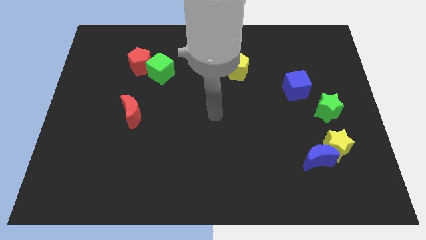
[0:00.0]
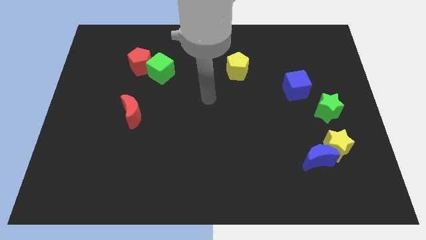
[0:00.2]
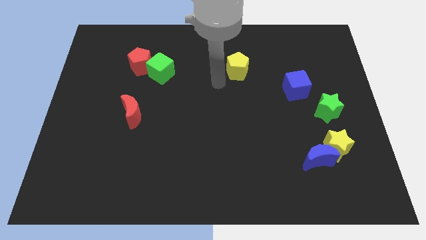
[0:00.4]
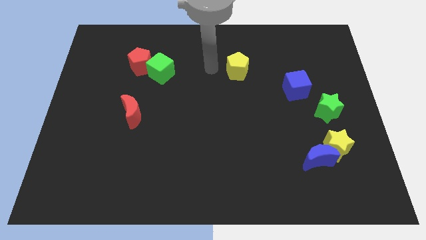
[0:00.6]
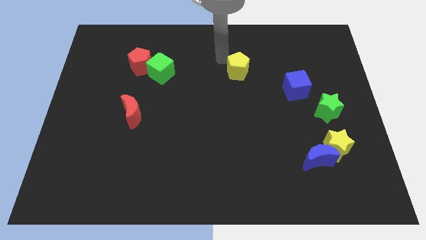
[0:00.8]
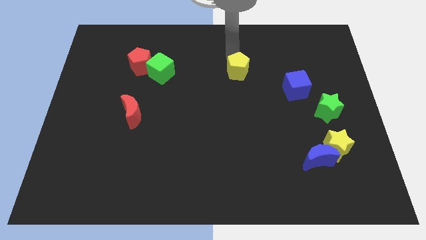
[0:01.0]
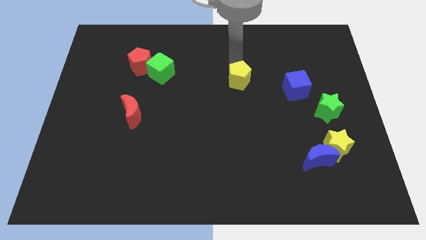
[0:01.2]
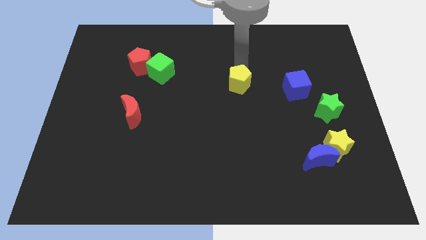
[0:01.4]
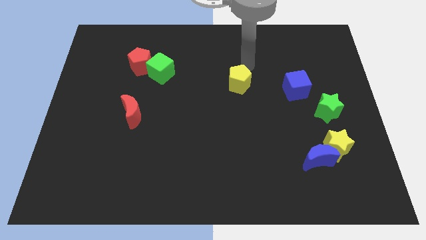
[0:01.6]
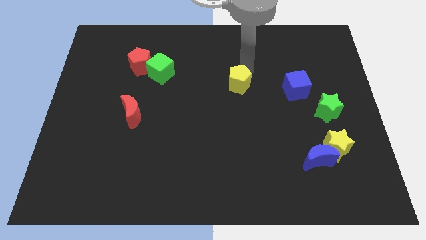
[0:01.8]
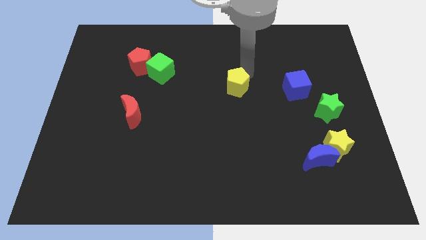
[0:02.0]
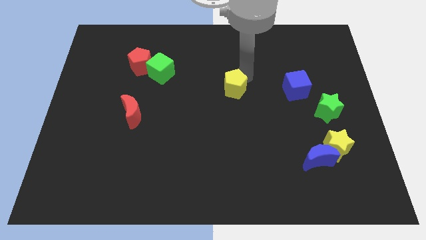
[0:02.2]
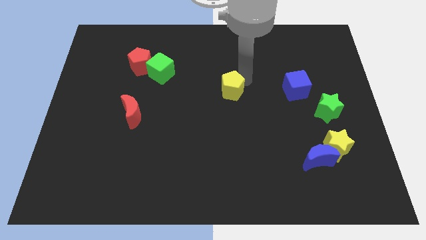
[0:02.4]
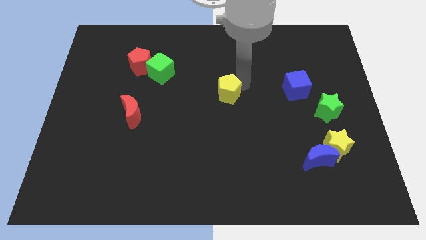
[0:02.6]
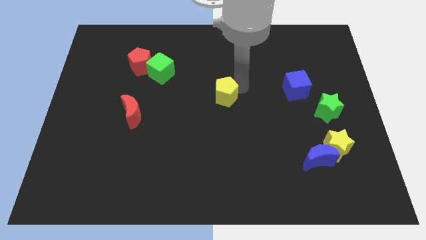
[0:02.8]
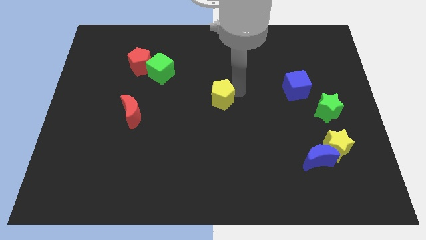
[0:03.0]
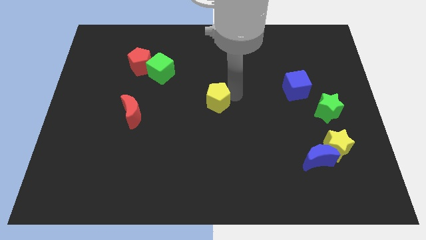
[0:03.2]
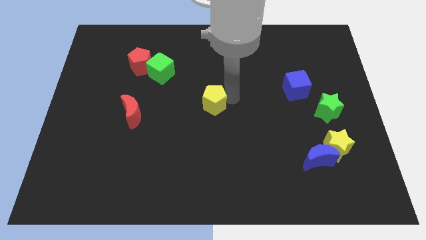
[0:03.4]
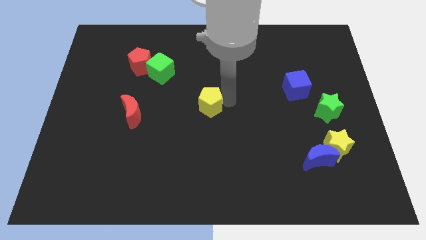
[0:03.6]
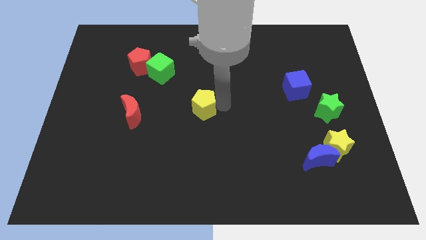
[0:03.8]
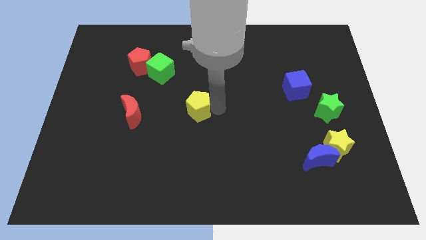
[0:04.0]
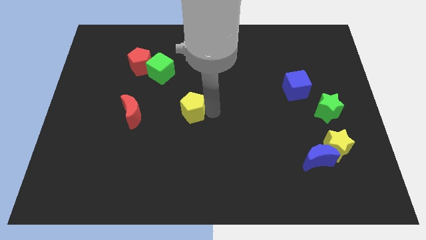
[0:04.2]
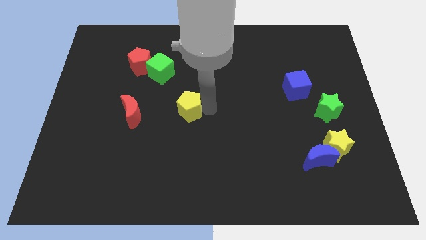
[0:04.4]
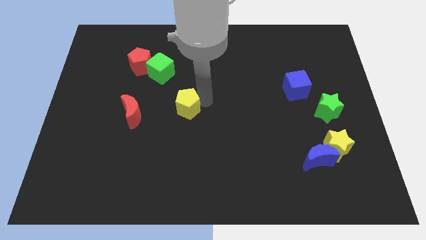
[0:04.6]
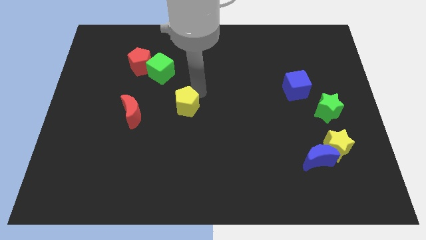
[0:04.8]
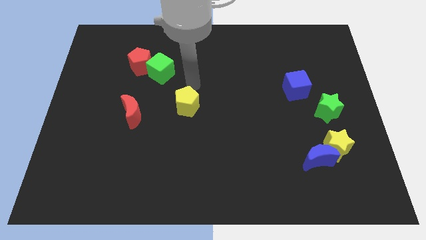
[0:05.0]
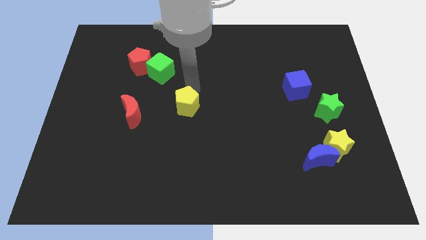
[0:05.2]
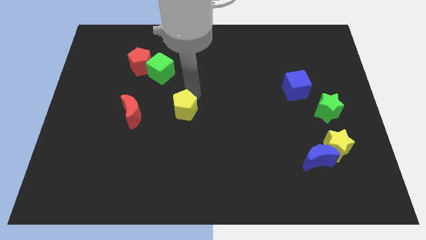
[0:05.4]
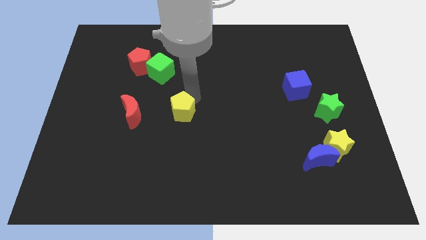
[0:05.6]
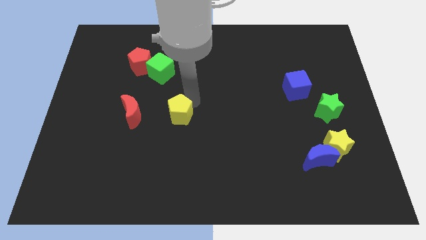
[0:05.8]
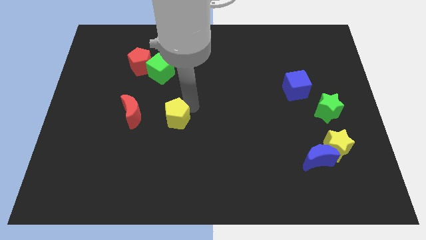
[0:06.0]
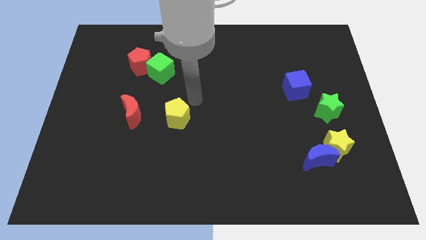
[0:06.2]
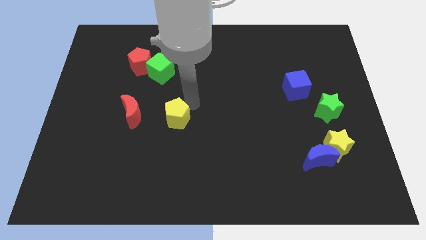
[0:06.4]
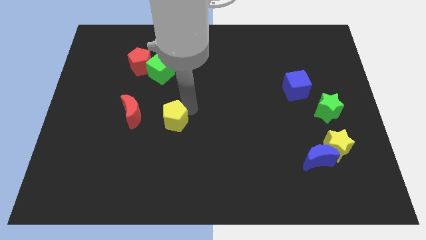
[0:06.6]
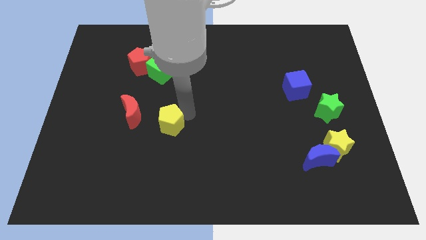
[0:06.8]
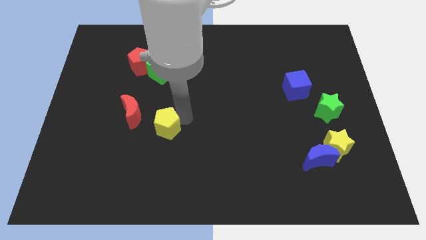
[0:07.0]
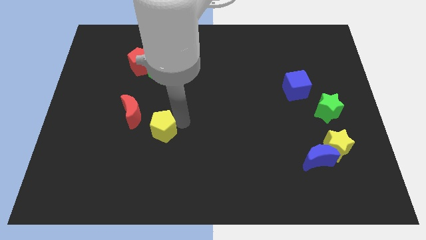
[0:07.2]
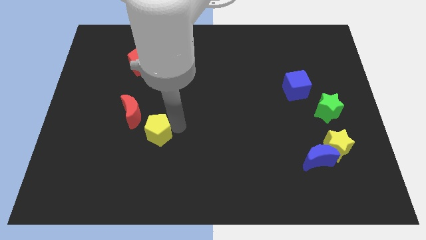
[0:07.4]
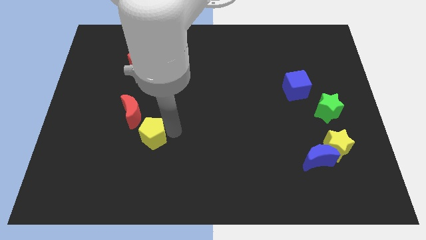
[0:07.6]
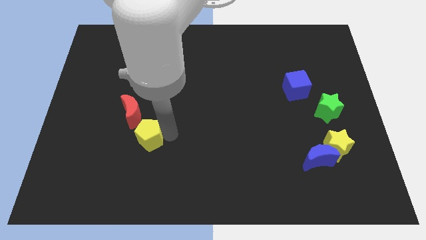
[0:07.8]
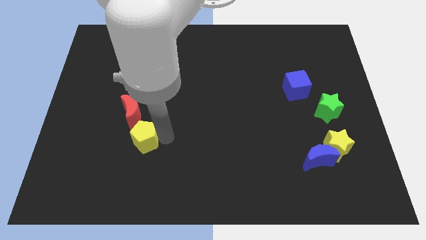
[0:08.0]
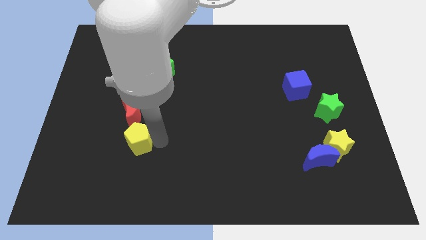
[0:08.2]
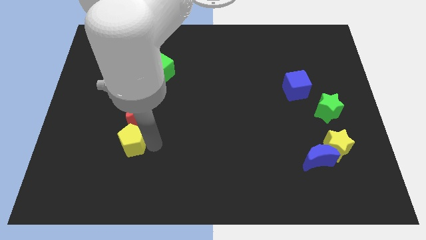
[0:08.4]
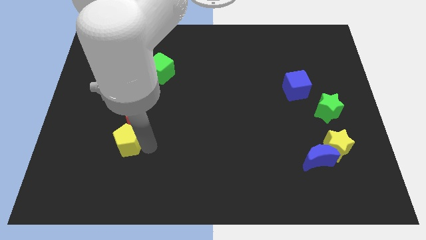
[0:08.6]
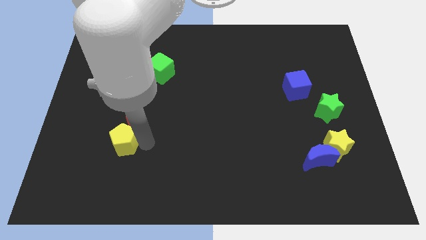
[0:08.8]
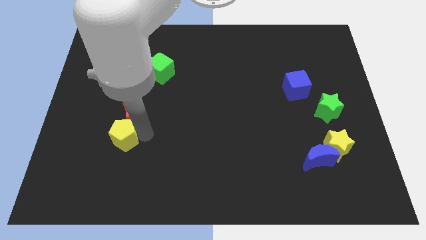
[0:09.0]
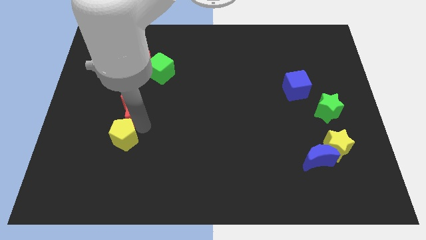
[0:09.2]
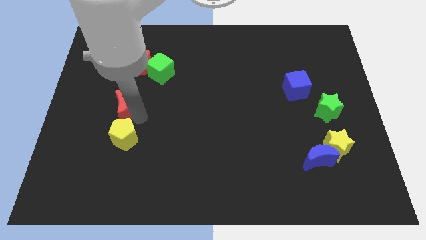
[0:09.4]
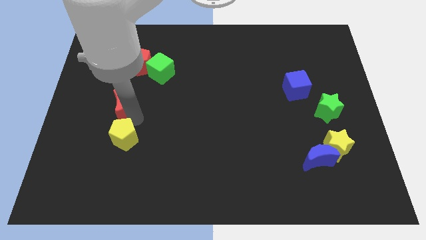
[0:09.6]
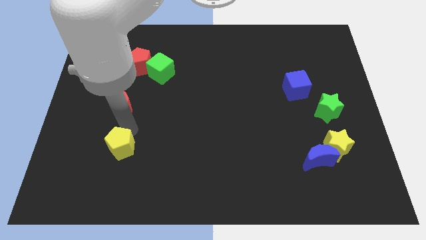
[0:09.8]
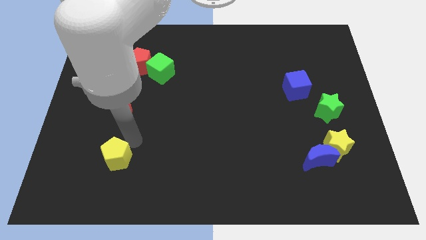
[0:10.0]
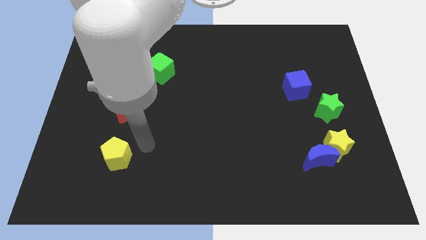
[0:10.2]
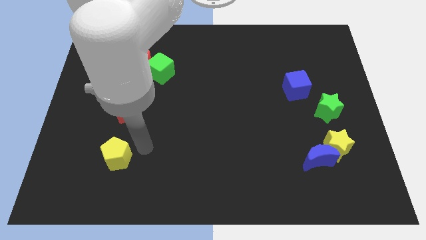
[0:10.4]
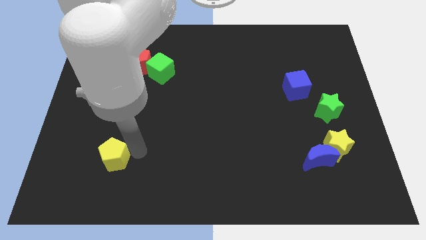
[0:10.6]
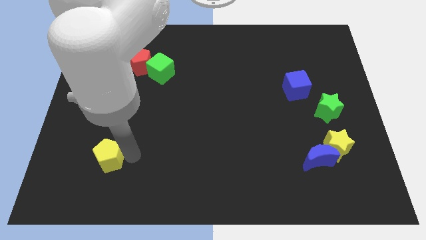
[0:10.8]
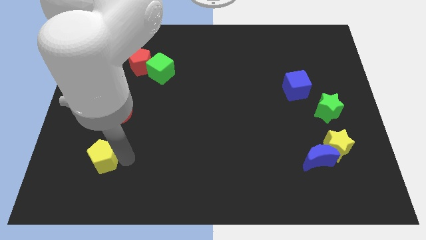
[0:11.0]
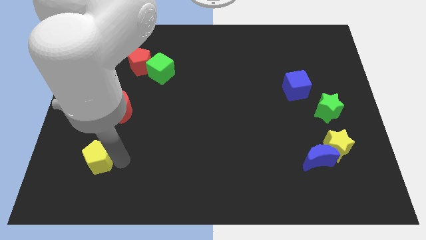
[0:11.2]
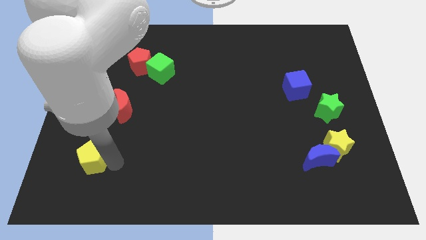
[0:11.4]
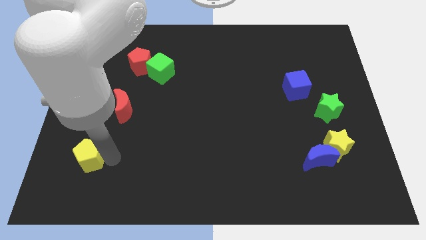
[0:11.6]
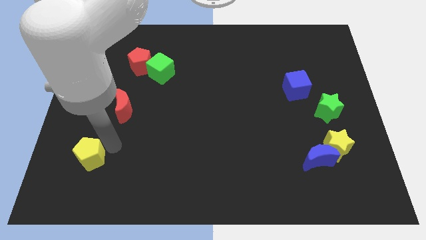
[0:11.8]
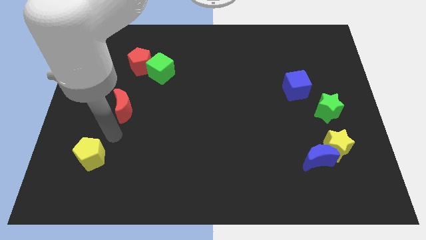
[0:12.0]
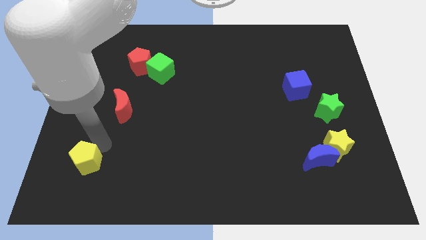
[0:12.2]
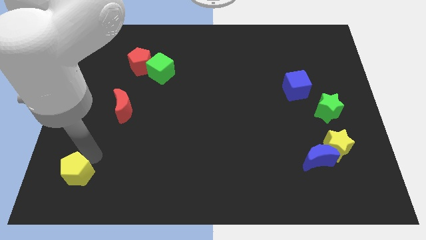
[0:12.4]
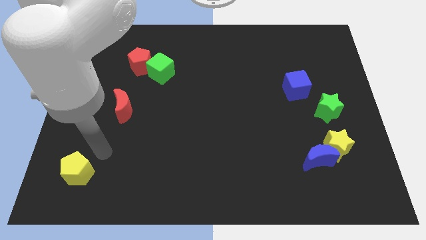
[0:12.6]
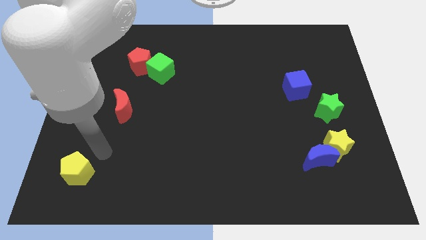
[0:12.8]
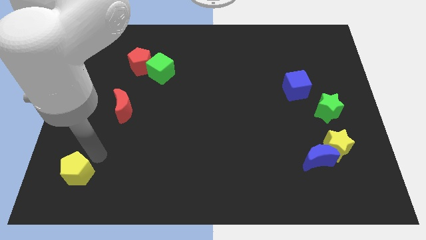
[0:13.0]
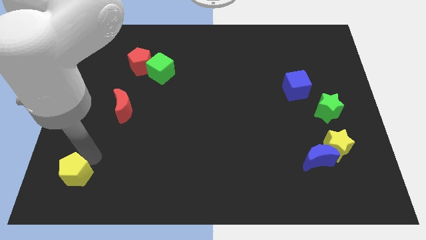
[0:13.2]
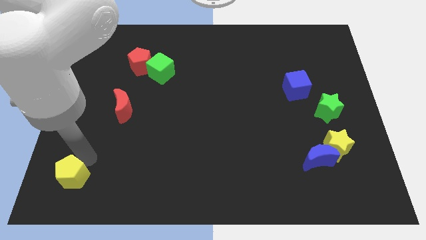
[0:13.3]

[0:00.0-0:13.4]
push the yellow pentagon to the bottom left of the board

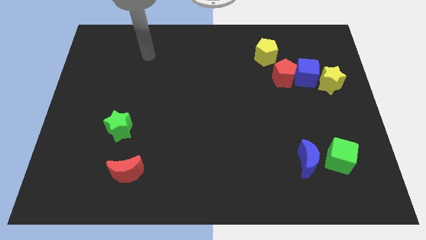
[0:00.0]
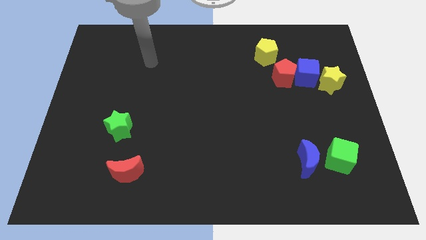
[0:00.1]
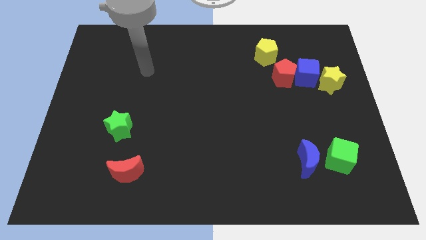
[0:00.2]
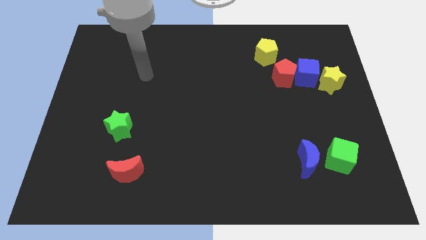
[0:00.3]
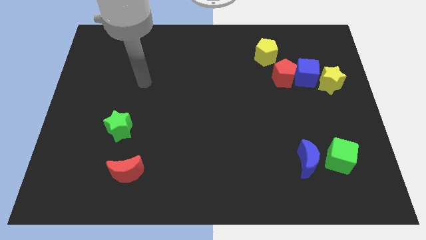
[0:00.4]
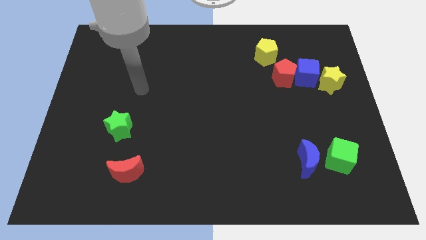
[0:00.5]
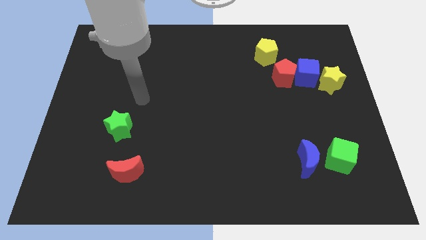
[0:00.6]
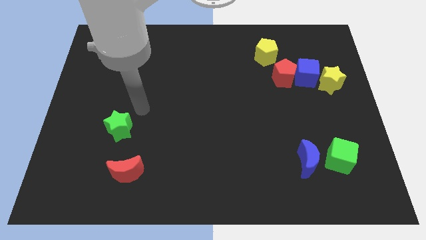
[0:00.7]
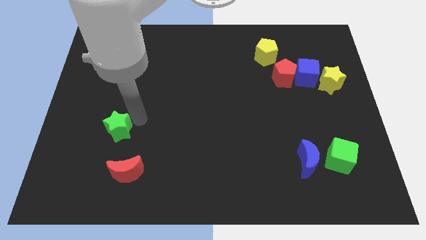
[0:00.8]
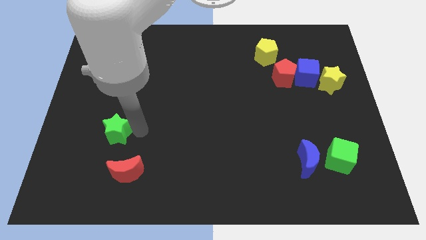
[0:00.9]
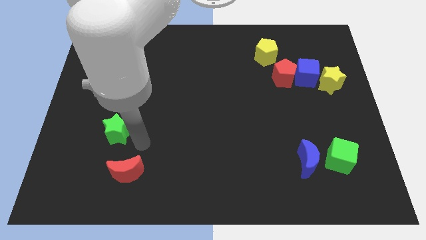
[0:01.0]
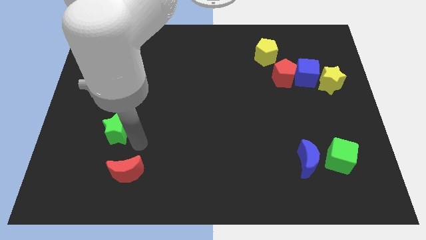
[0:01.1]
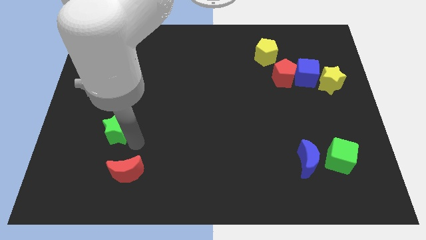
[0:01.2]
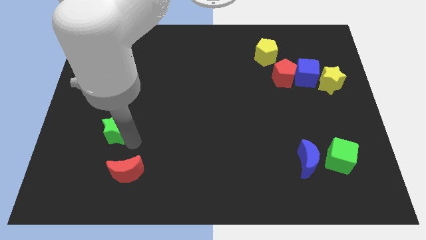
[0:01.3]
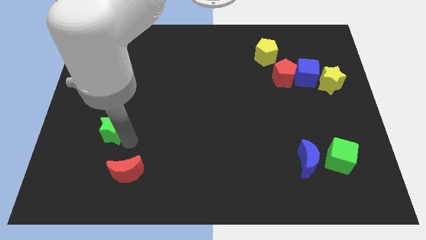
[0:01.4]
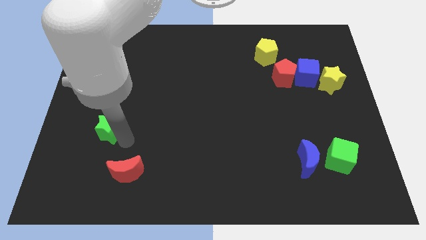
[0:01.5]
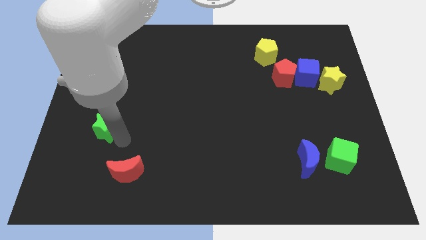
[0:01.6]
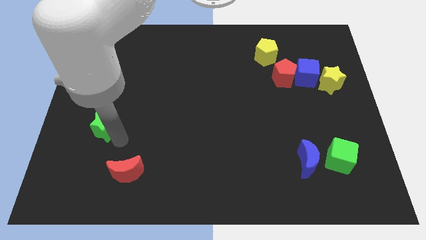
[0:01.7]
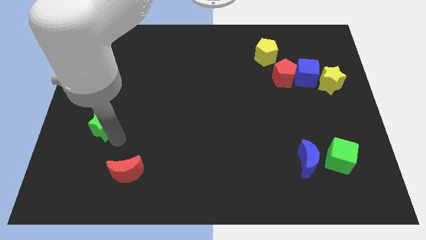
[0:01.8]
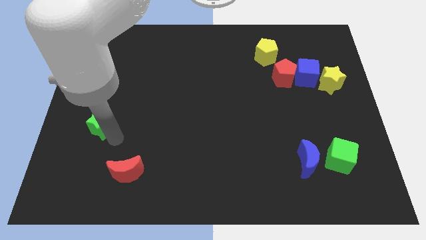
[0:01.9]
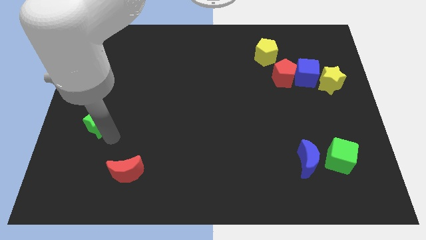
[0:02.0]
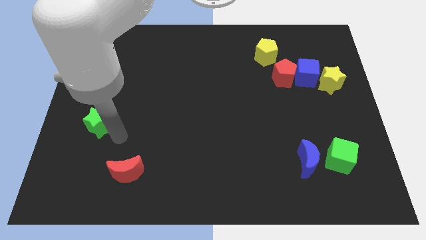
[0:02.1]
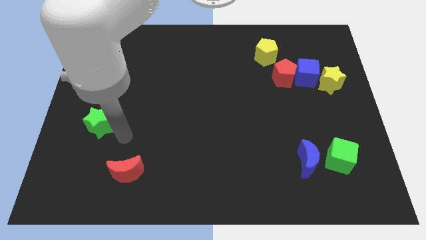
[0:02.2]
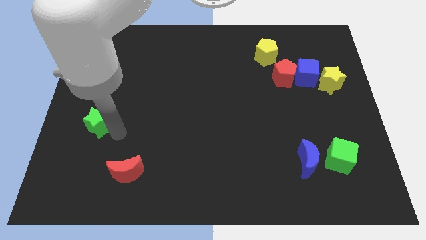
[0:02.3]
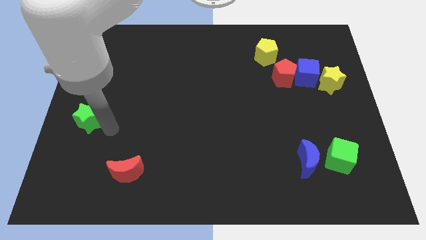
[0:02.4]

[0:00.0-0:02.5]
put the green star to the center left
